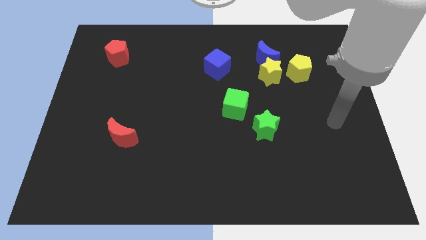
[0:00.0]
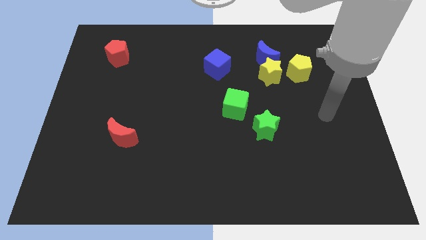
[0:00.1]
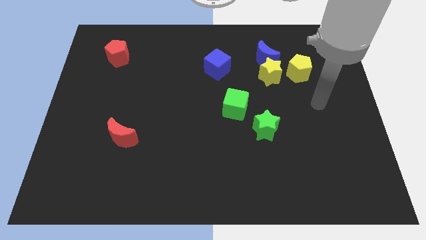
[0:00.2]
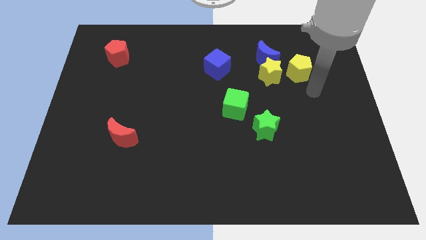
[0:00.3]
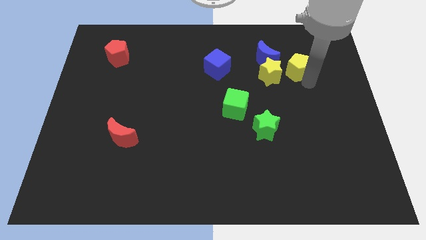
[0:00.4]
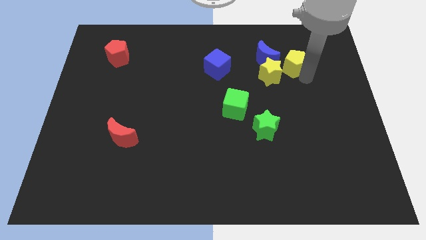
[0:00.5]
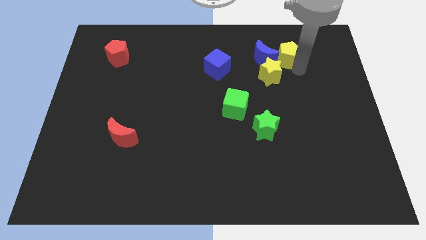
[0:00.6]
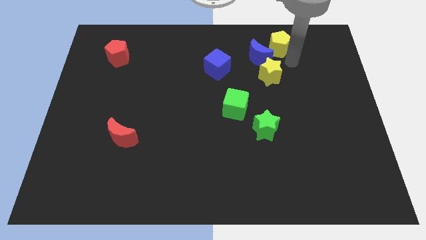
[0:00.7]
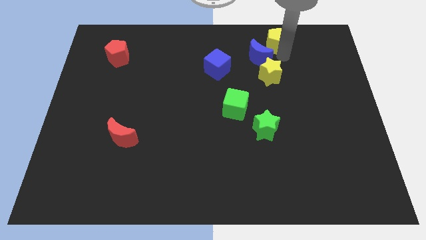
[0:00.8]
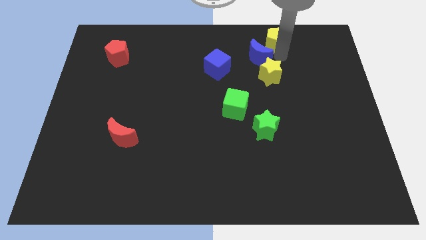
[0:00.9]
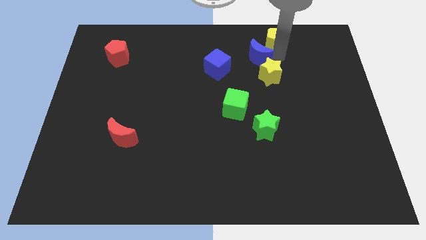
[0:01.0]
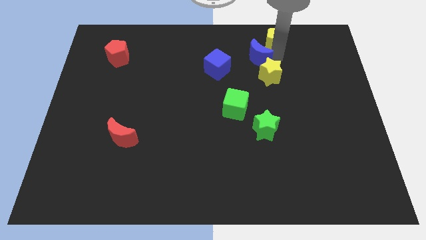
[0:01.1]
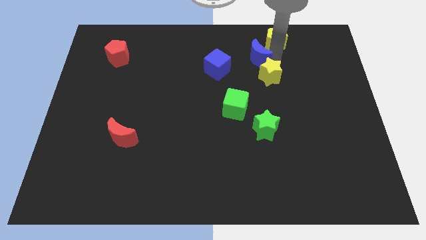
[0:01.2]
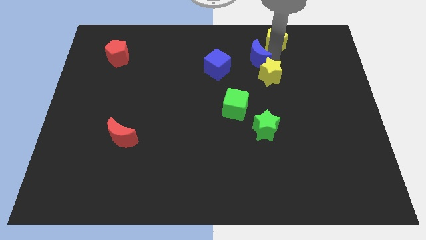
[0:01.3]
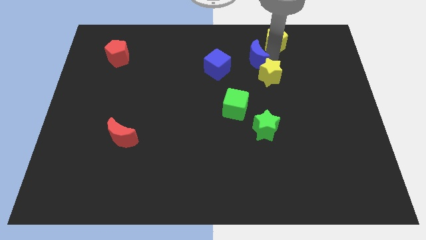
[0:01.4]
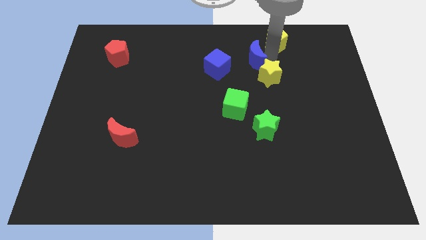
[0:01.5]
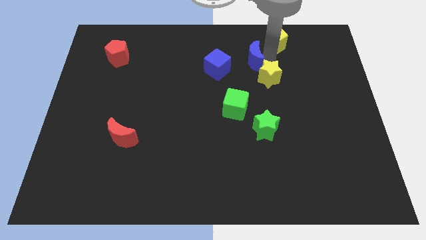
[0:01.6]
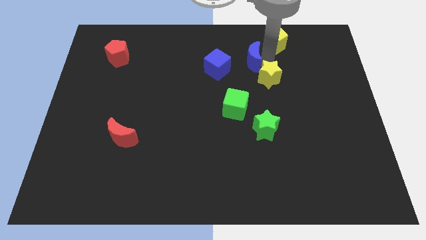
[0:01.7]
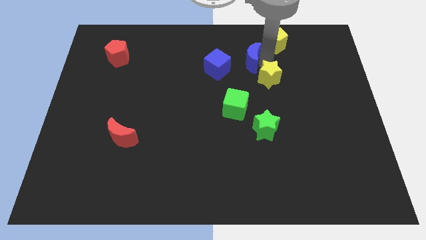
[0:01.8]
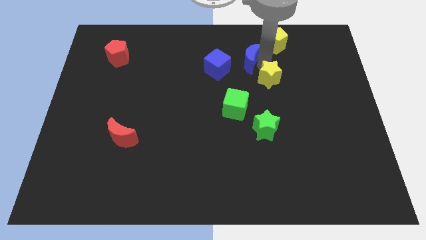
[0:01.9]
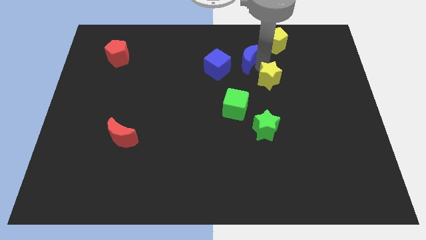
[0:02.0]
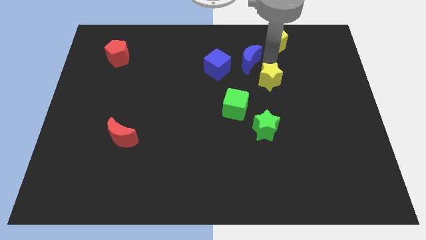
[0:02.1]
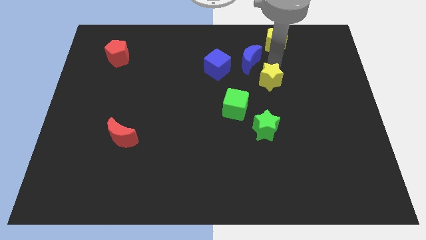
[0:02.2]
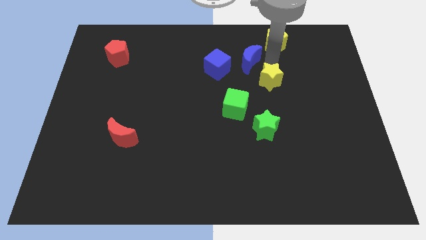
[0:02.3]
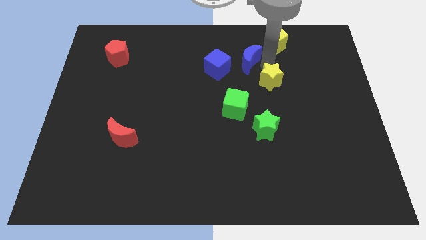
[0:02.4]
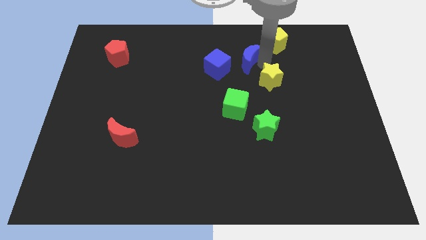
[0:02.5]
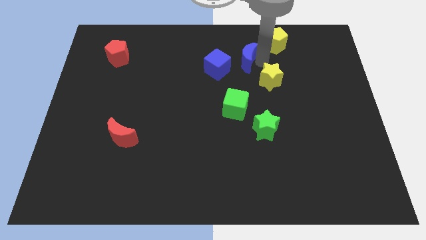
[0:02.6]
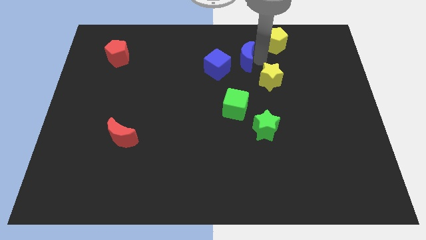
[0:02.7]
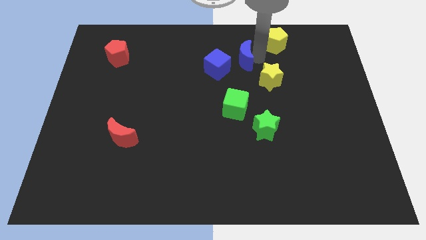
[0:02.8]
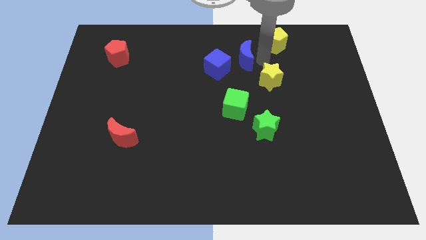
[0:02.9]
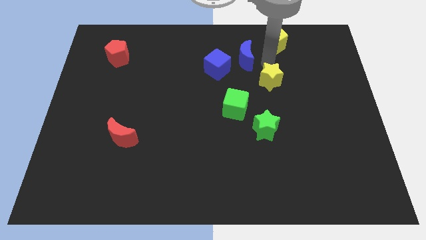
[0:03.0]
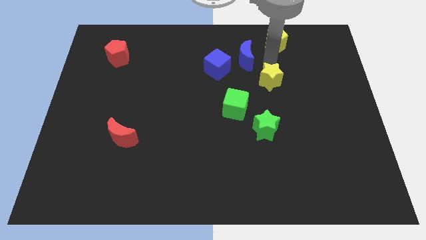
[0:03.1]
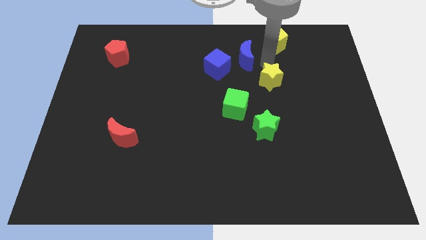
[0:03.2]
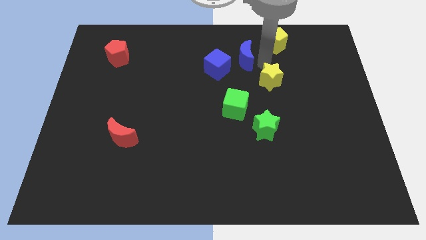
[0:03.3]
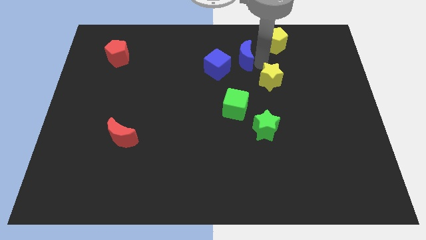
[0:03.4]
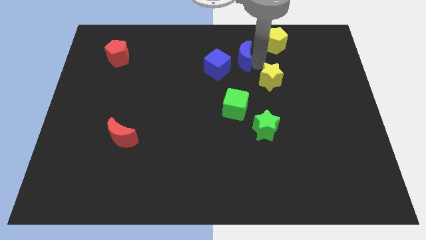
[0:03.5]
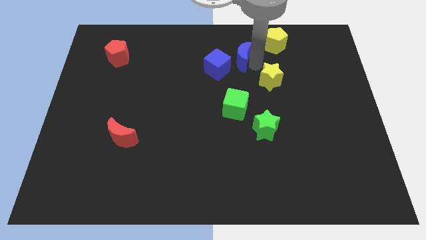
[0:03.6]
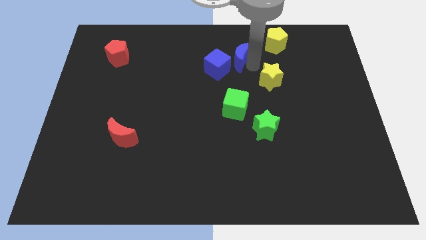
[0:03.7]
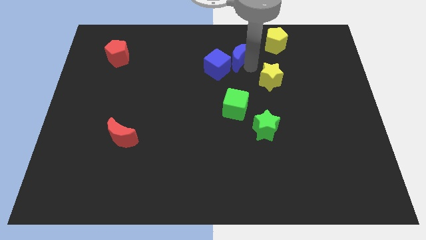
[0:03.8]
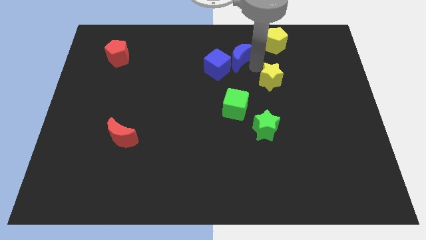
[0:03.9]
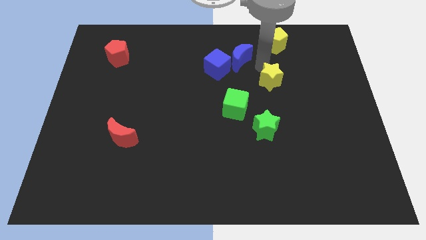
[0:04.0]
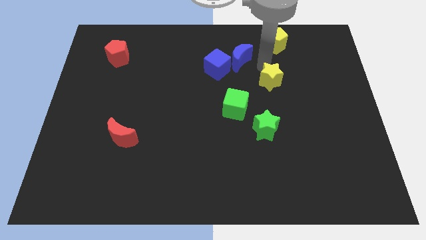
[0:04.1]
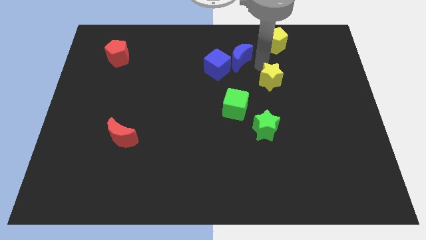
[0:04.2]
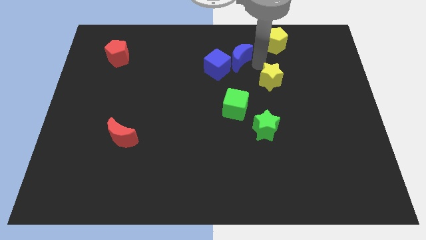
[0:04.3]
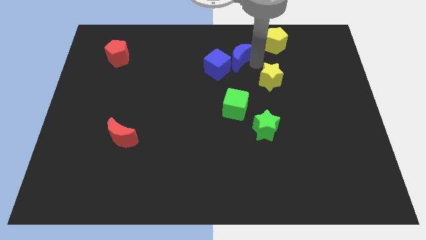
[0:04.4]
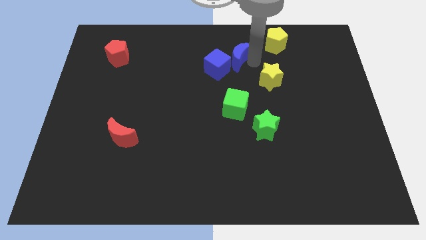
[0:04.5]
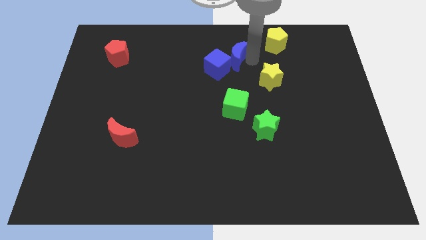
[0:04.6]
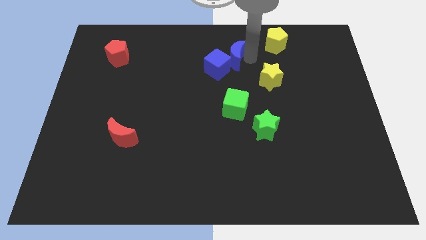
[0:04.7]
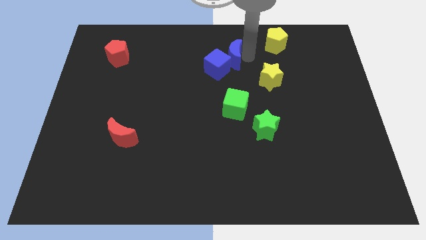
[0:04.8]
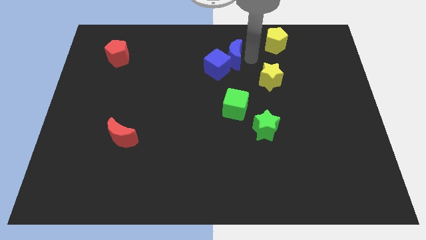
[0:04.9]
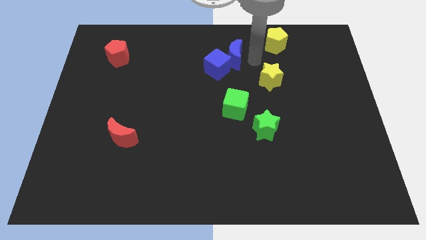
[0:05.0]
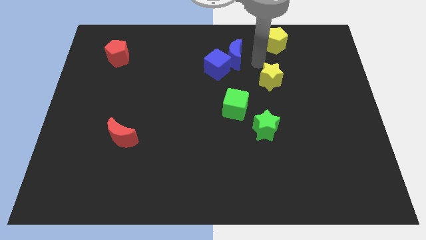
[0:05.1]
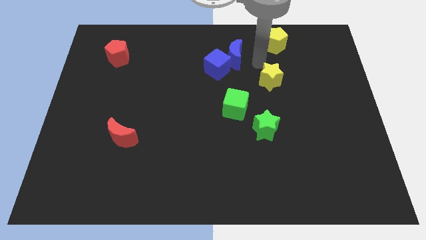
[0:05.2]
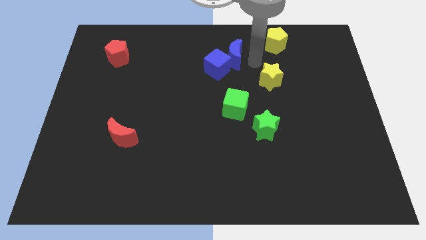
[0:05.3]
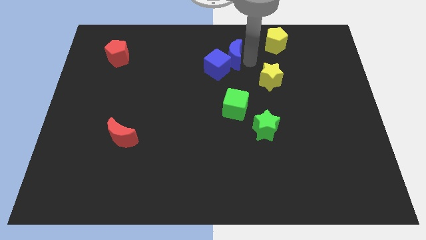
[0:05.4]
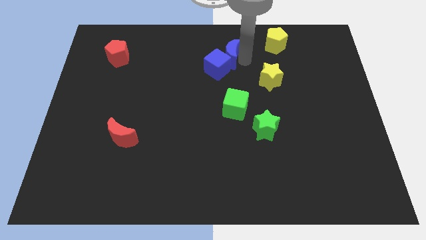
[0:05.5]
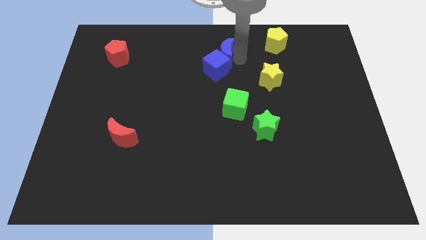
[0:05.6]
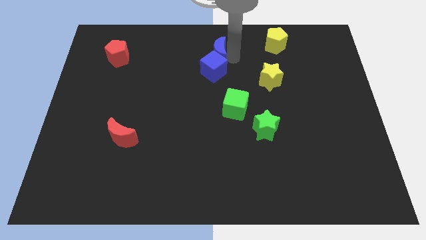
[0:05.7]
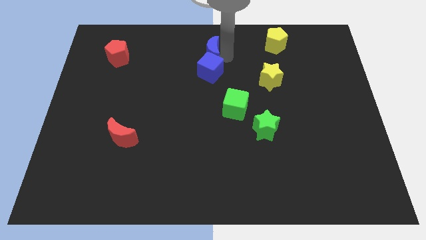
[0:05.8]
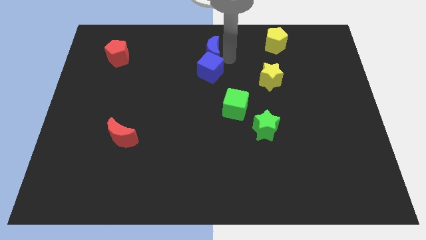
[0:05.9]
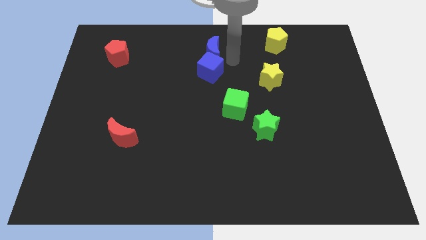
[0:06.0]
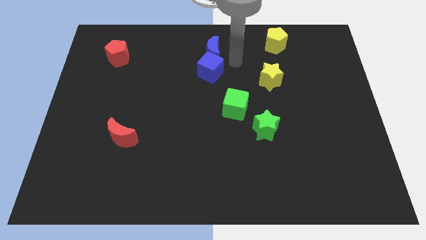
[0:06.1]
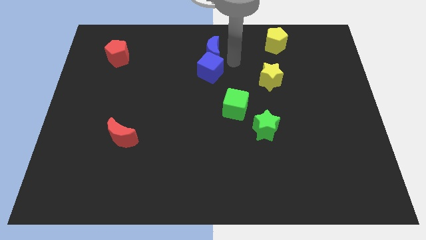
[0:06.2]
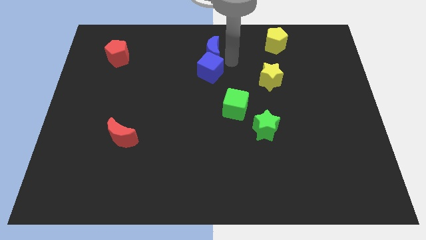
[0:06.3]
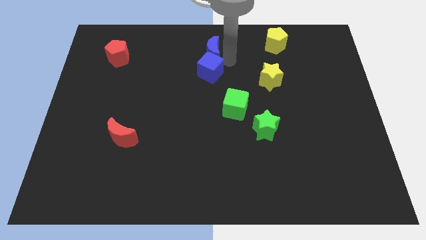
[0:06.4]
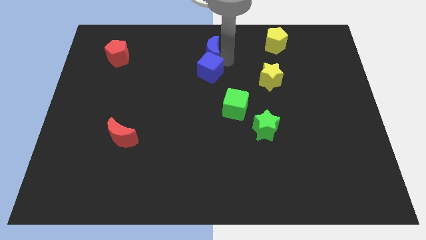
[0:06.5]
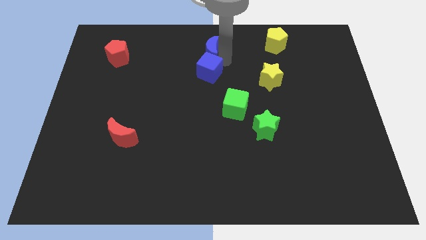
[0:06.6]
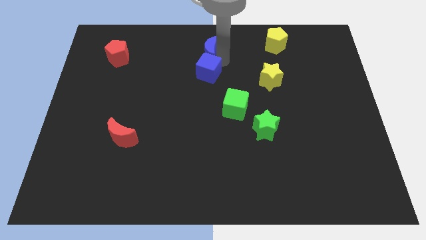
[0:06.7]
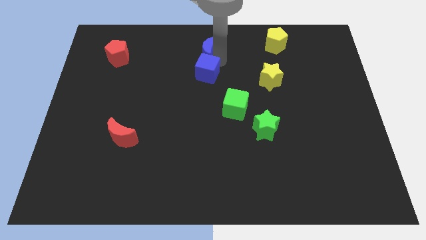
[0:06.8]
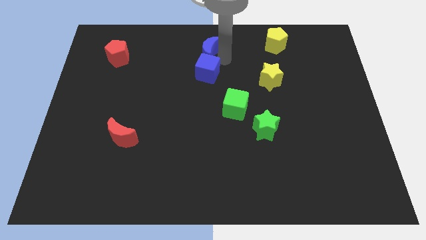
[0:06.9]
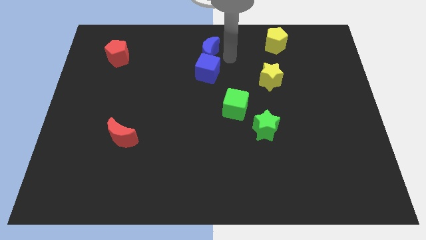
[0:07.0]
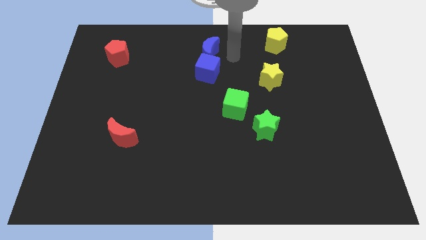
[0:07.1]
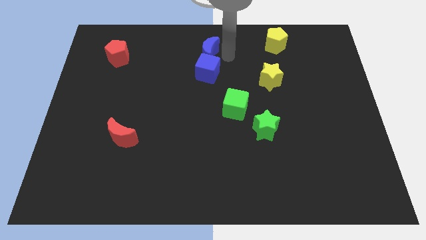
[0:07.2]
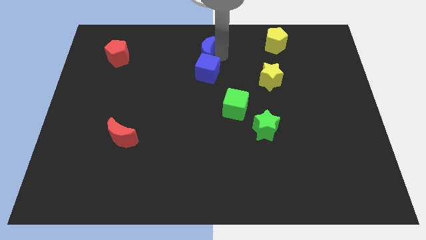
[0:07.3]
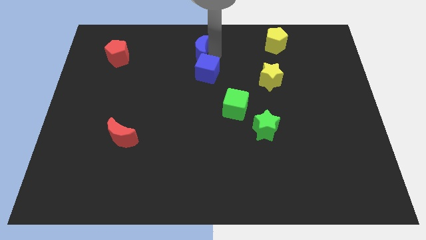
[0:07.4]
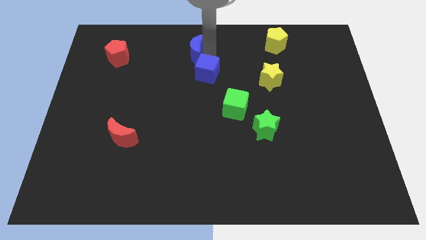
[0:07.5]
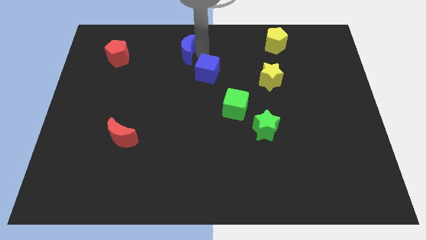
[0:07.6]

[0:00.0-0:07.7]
slide the blue moon to the left

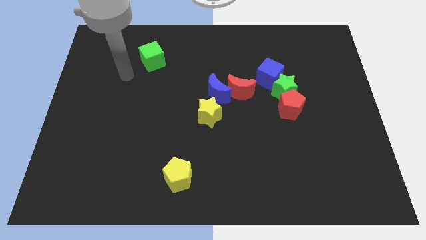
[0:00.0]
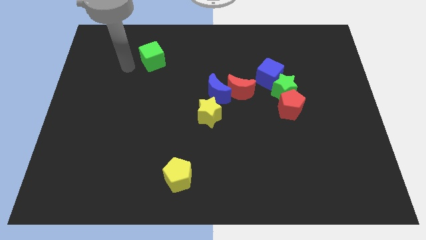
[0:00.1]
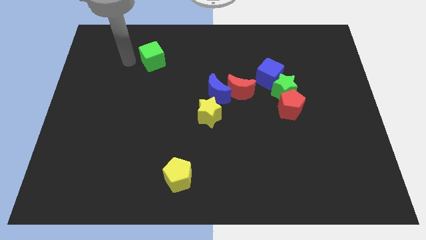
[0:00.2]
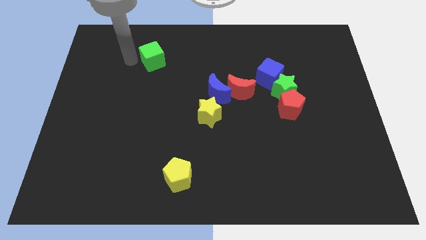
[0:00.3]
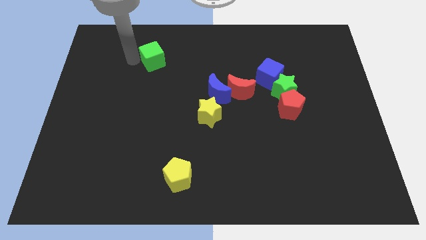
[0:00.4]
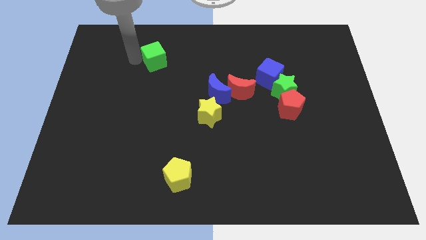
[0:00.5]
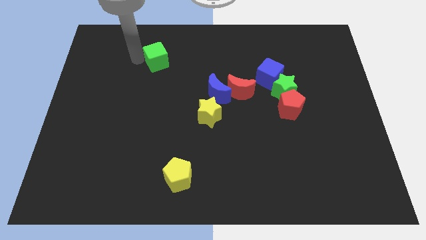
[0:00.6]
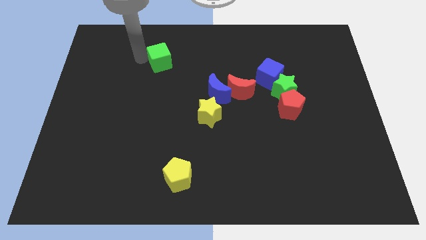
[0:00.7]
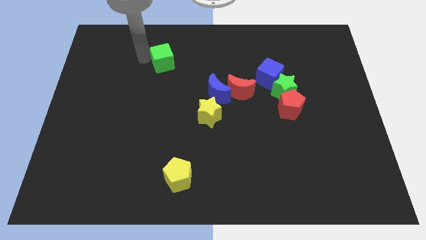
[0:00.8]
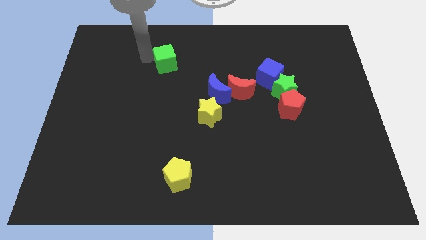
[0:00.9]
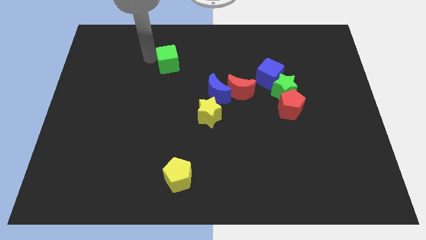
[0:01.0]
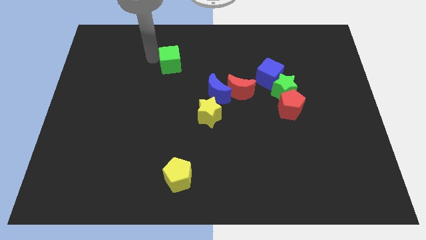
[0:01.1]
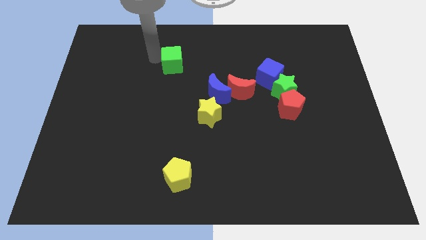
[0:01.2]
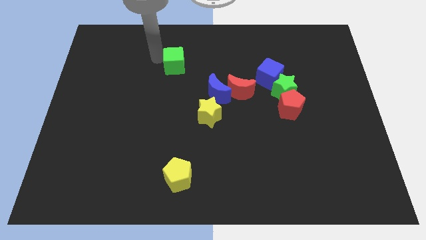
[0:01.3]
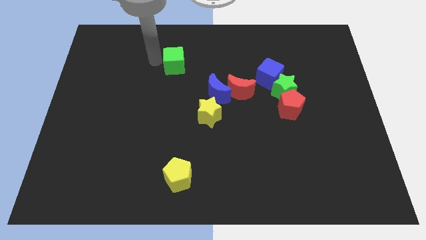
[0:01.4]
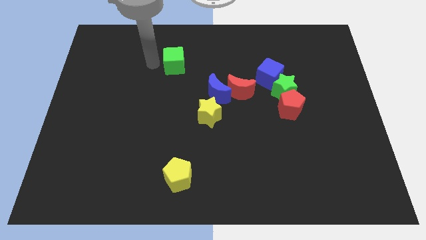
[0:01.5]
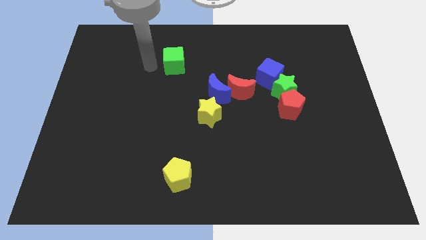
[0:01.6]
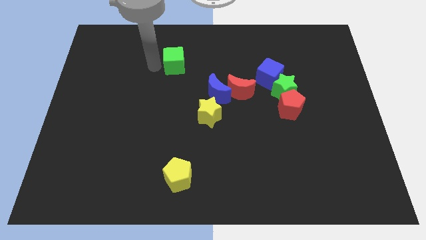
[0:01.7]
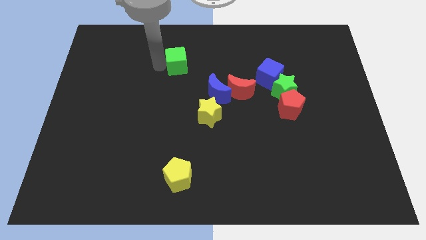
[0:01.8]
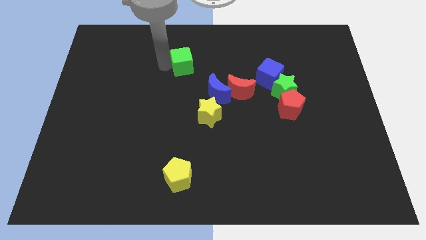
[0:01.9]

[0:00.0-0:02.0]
slightly slide the green cube right
